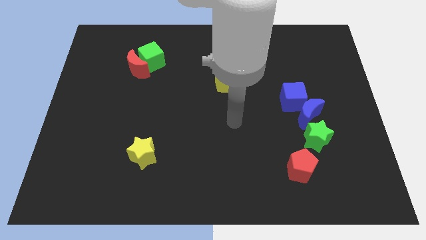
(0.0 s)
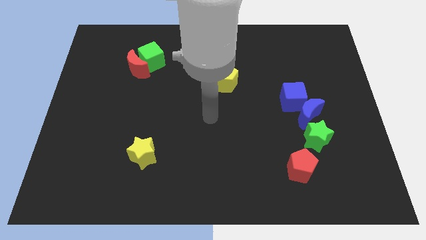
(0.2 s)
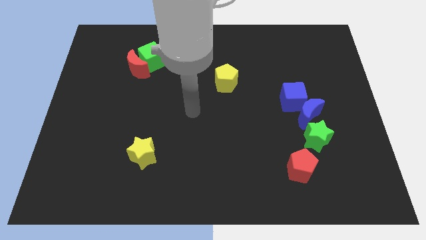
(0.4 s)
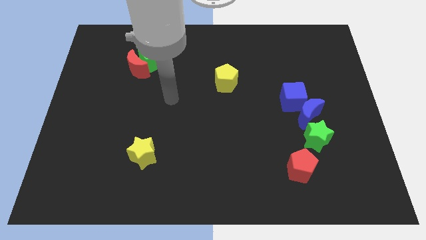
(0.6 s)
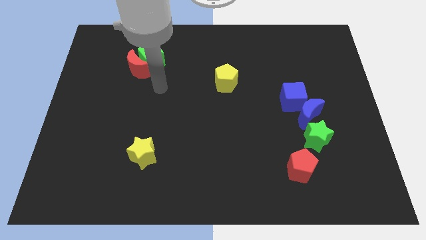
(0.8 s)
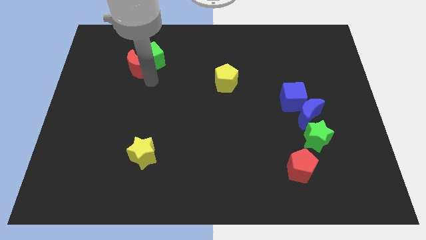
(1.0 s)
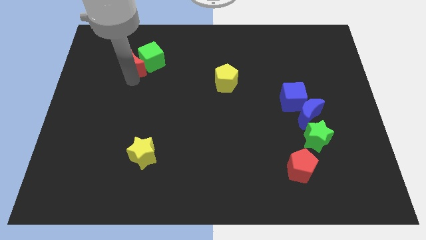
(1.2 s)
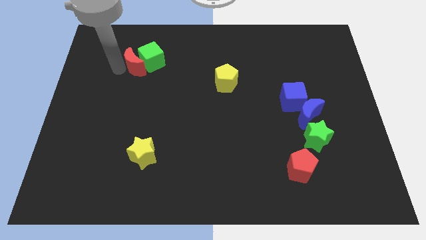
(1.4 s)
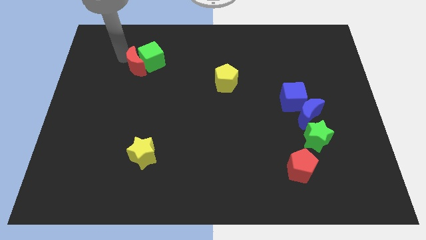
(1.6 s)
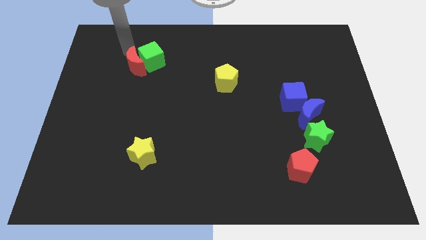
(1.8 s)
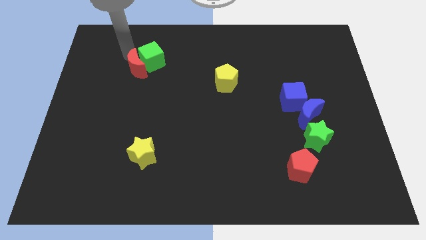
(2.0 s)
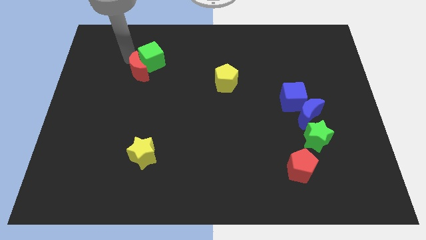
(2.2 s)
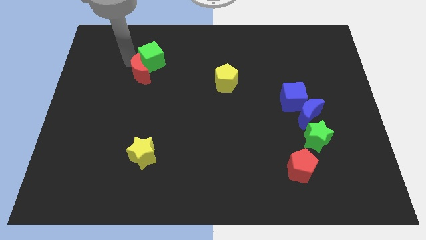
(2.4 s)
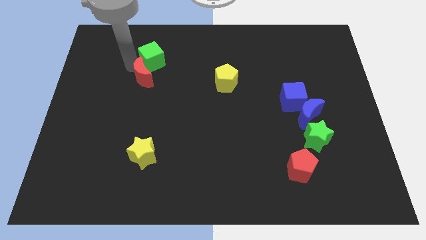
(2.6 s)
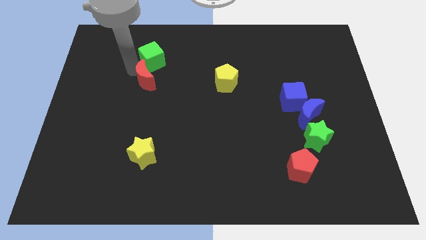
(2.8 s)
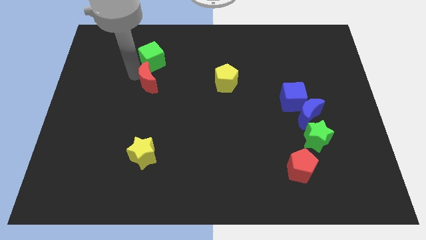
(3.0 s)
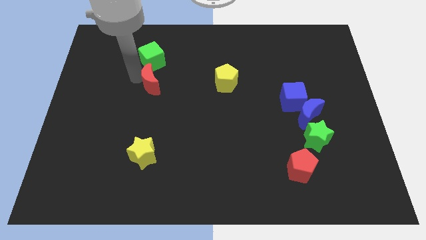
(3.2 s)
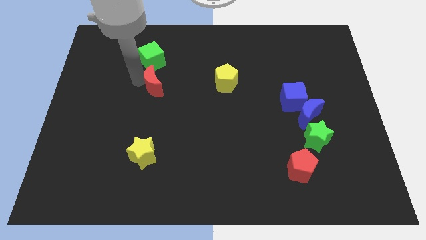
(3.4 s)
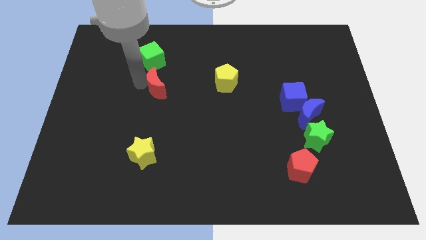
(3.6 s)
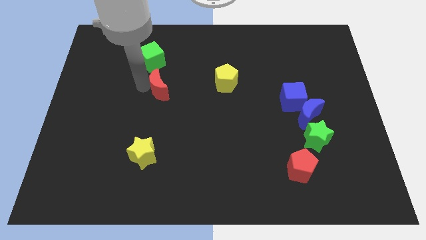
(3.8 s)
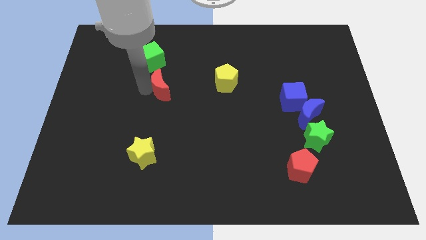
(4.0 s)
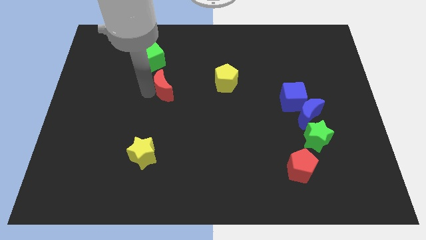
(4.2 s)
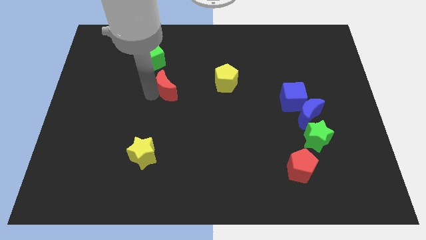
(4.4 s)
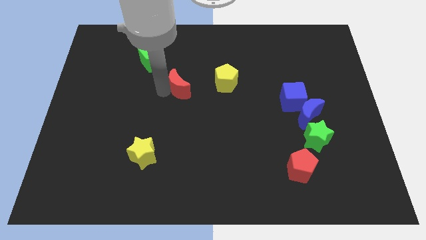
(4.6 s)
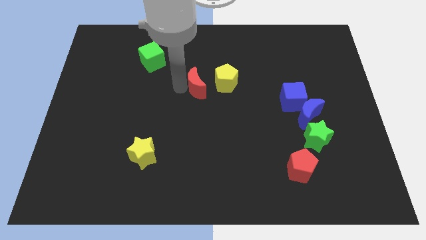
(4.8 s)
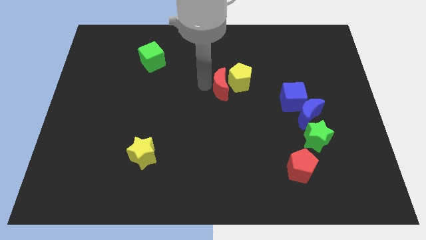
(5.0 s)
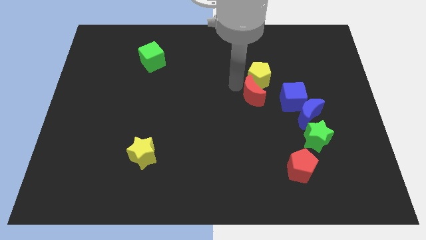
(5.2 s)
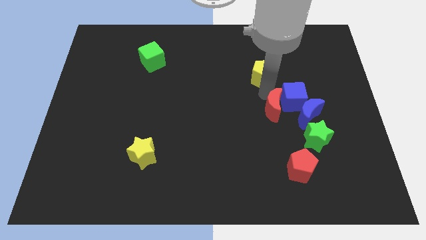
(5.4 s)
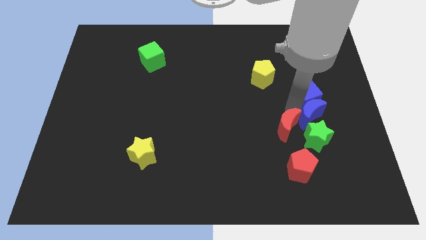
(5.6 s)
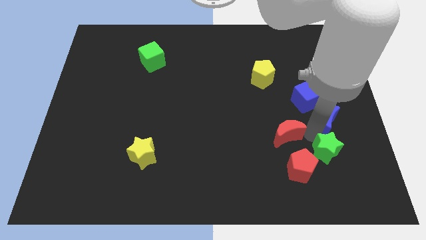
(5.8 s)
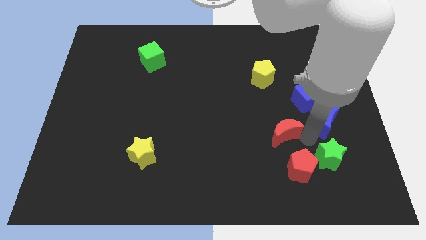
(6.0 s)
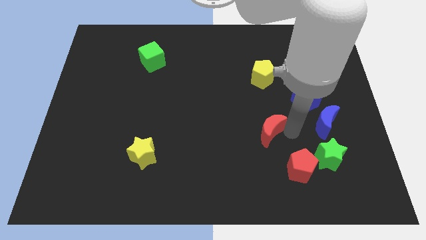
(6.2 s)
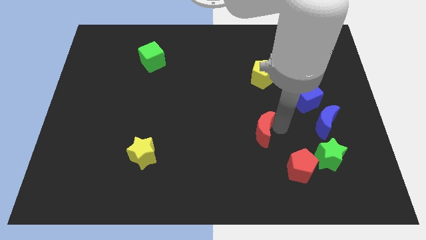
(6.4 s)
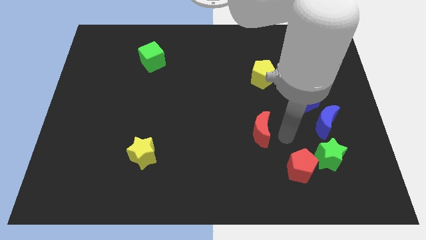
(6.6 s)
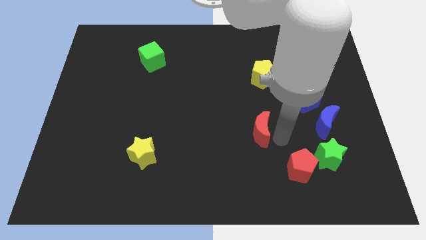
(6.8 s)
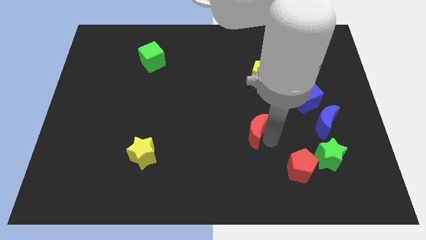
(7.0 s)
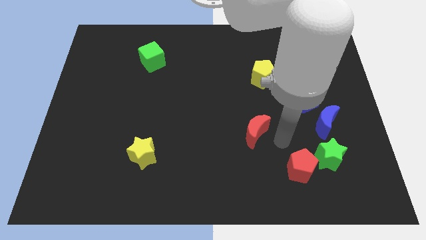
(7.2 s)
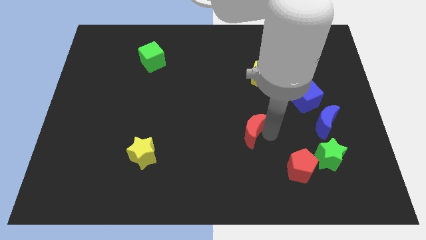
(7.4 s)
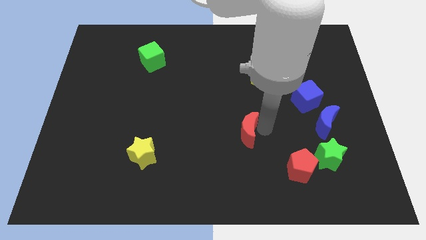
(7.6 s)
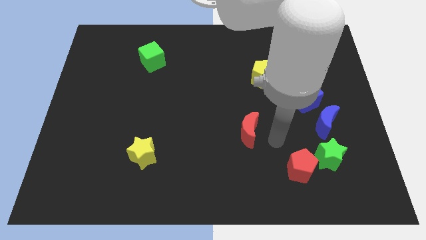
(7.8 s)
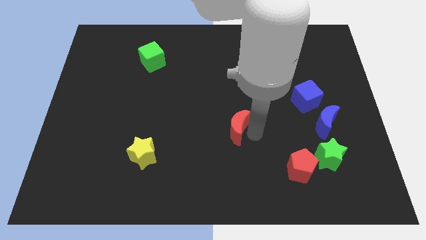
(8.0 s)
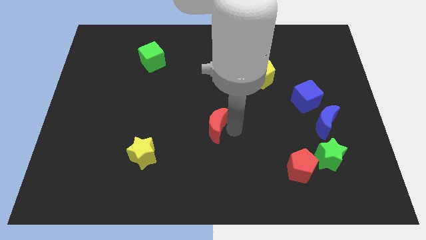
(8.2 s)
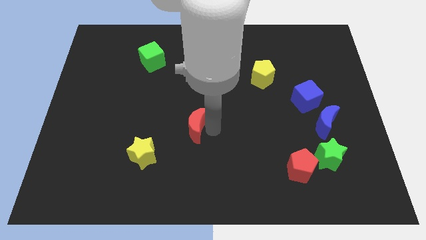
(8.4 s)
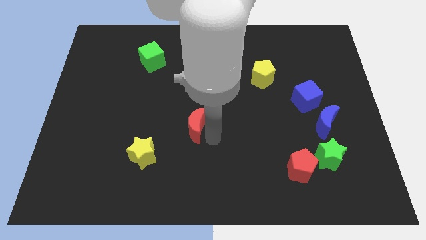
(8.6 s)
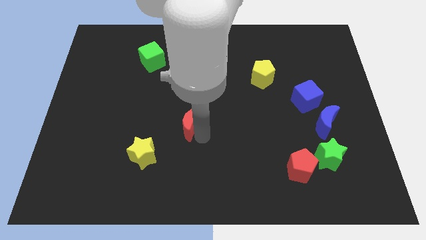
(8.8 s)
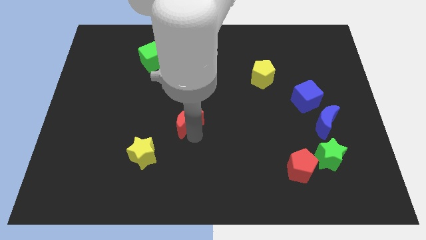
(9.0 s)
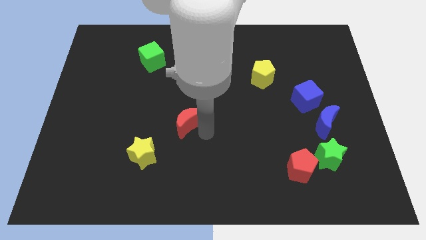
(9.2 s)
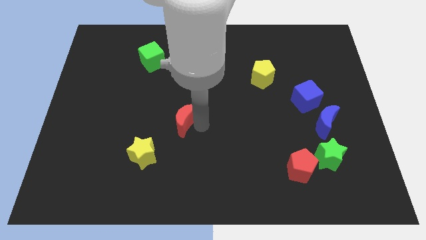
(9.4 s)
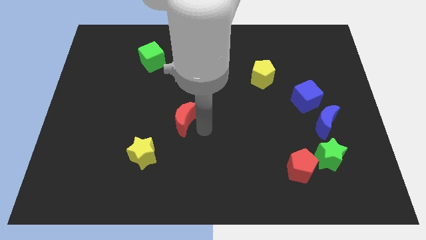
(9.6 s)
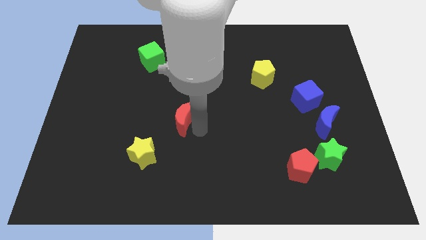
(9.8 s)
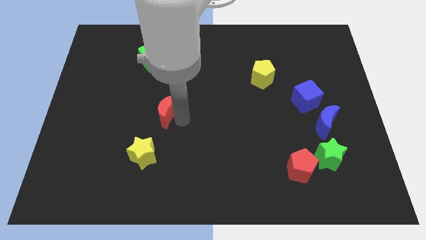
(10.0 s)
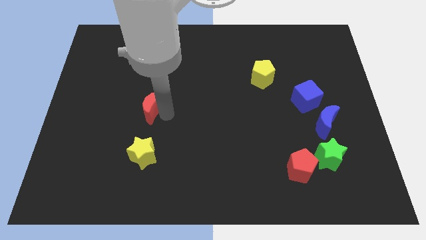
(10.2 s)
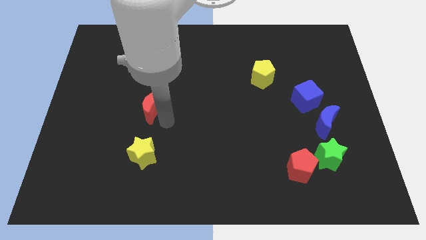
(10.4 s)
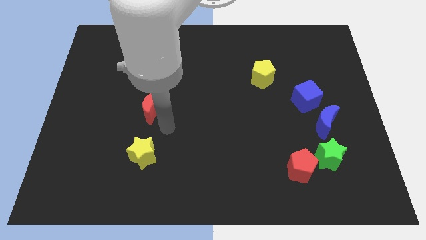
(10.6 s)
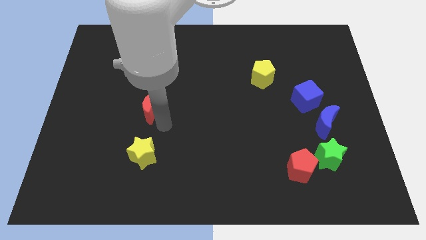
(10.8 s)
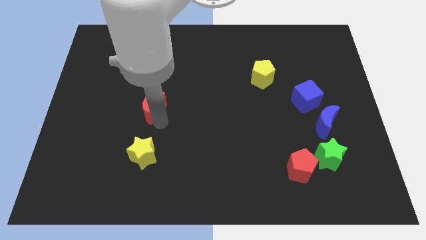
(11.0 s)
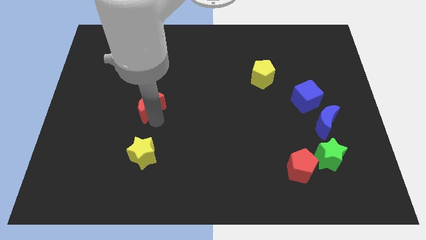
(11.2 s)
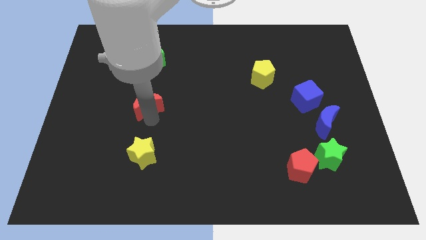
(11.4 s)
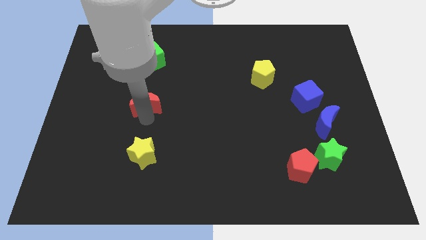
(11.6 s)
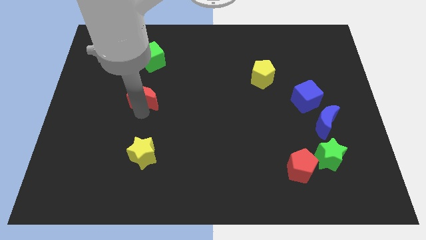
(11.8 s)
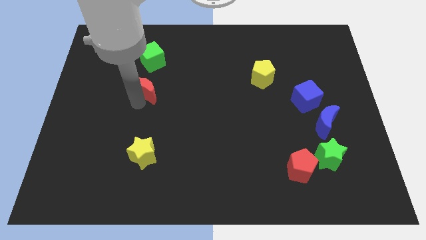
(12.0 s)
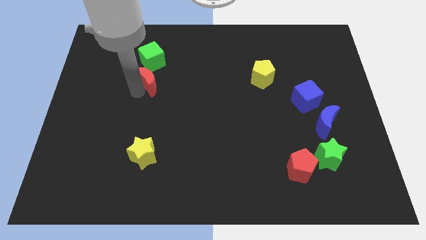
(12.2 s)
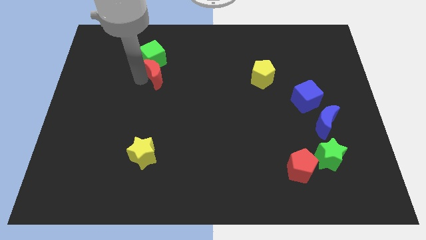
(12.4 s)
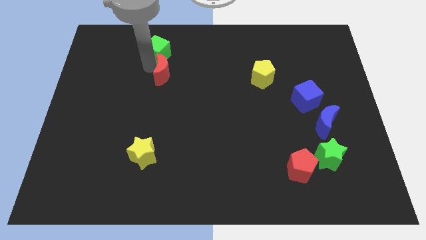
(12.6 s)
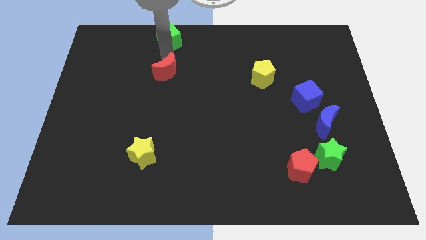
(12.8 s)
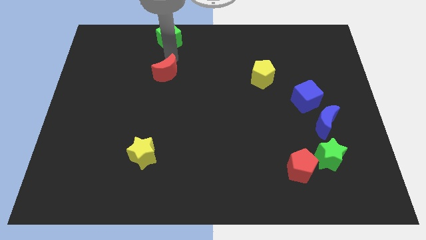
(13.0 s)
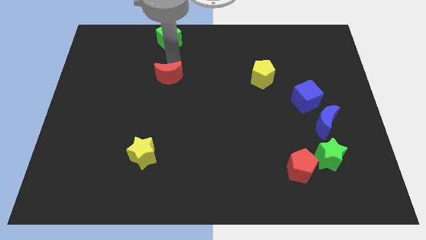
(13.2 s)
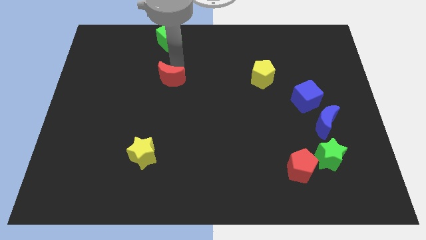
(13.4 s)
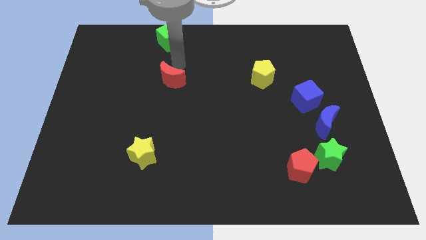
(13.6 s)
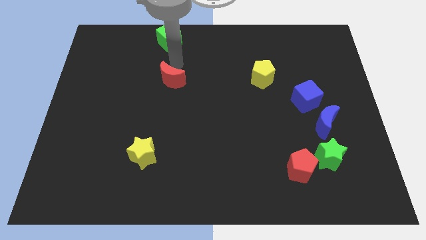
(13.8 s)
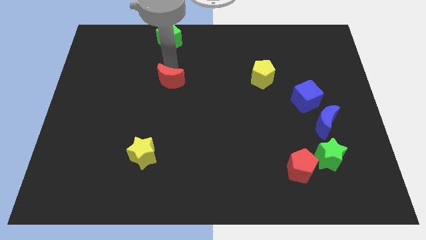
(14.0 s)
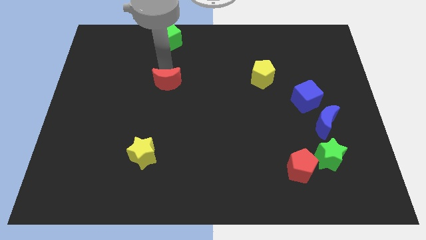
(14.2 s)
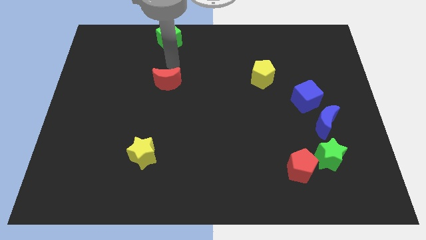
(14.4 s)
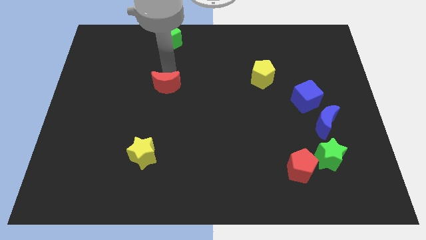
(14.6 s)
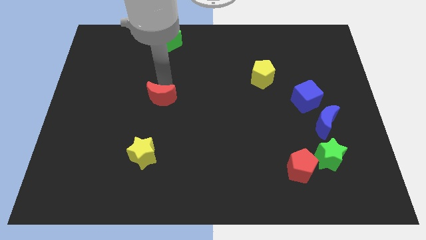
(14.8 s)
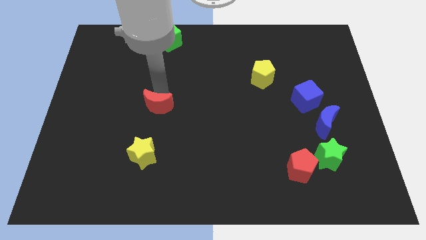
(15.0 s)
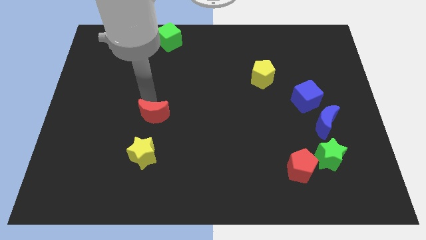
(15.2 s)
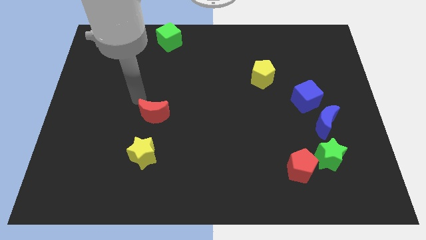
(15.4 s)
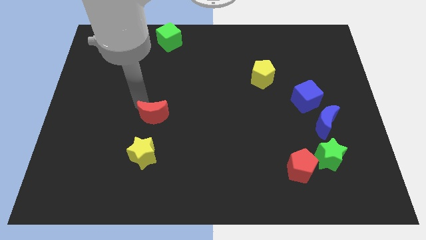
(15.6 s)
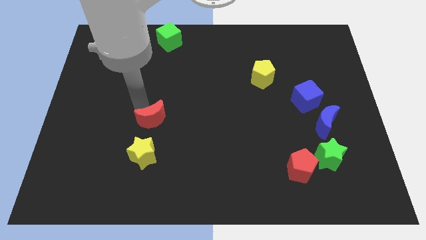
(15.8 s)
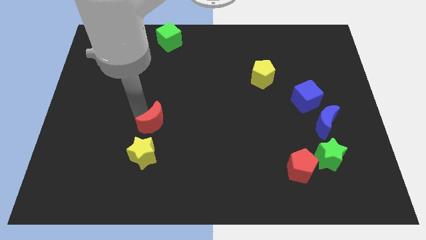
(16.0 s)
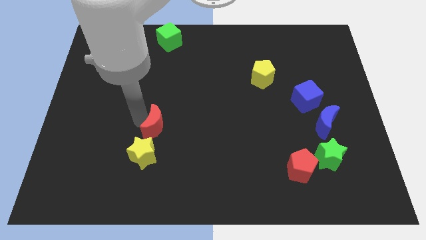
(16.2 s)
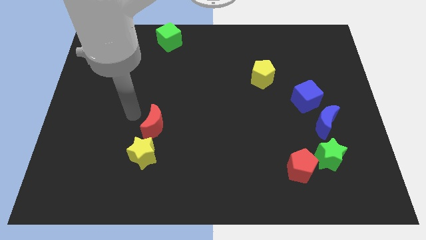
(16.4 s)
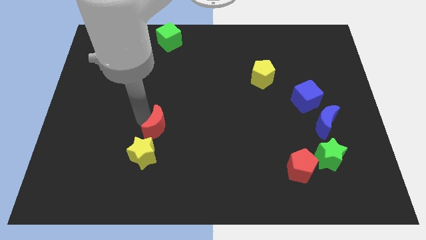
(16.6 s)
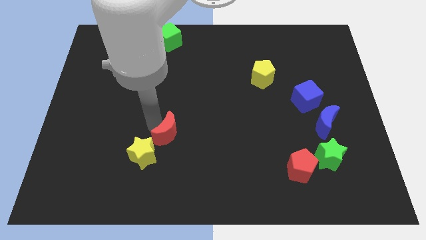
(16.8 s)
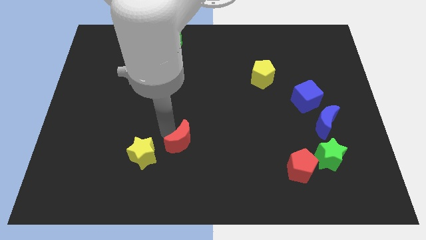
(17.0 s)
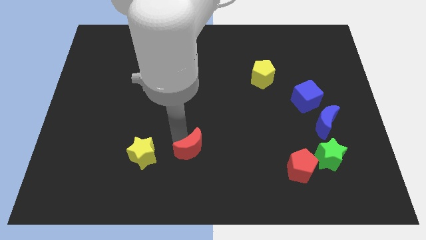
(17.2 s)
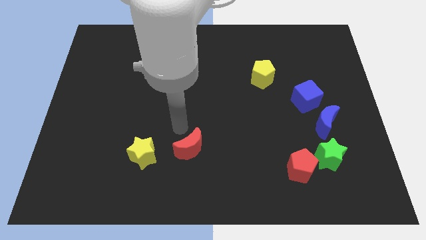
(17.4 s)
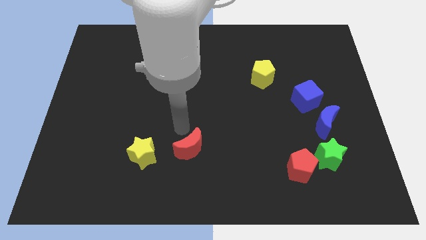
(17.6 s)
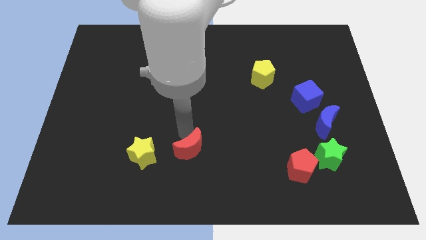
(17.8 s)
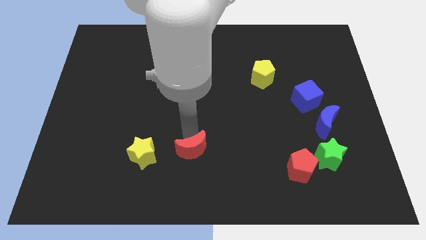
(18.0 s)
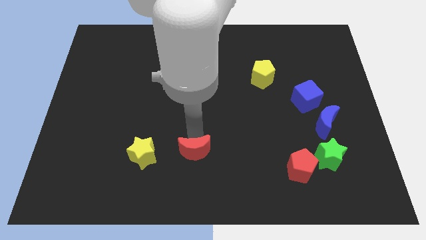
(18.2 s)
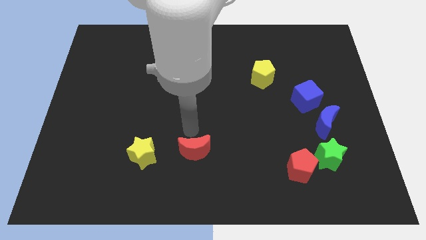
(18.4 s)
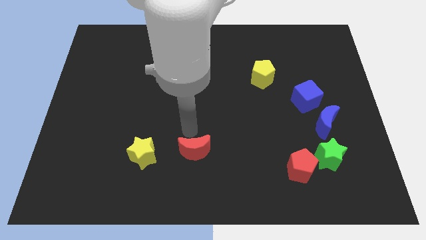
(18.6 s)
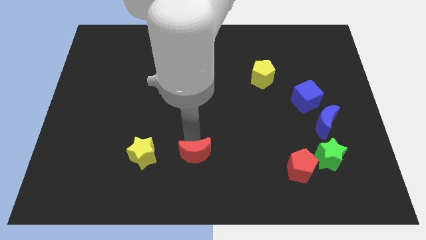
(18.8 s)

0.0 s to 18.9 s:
move the red moon to the bottom side
